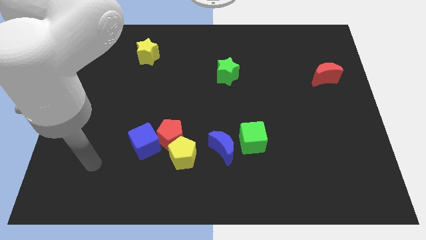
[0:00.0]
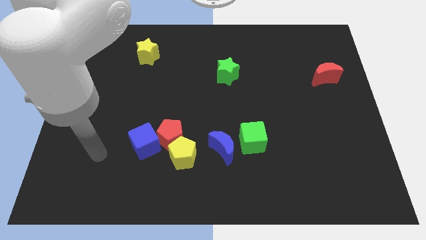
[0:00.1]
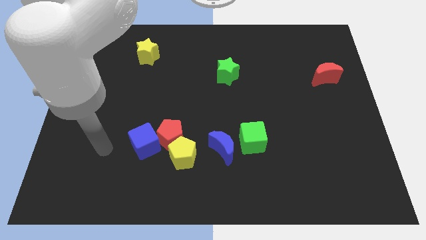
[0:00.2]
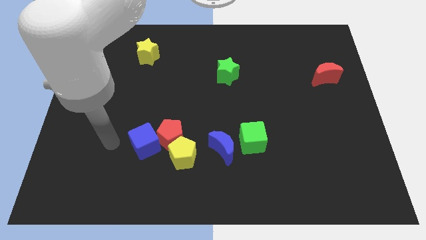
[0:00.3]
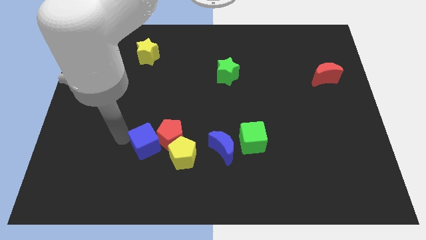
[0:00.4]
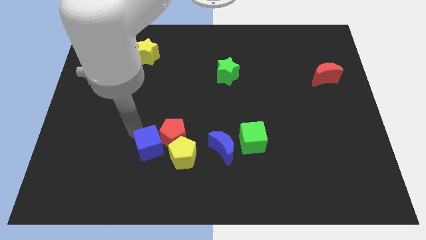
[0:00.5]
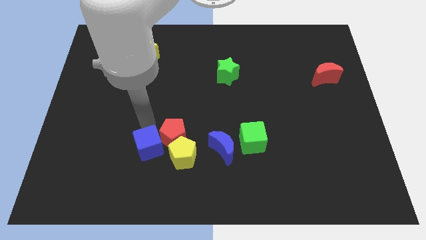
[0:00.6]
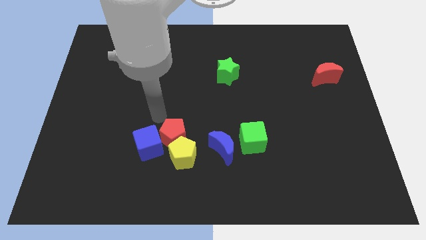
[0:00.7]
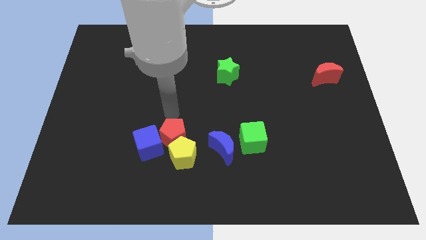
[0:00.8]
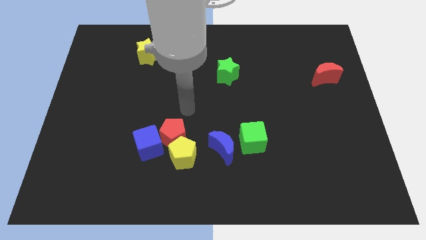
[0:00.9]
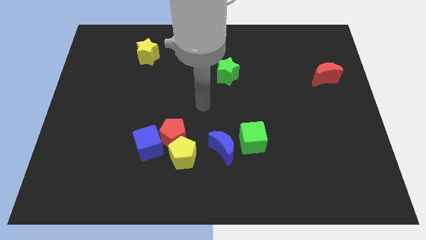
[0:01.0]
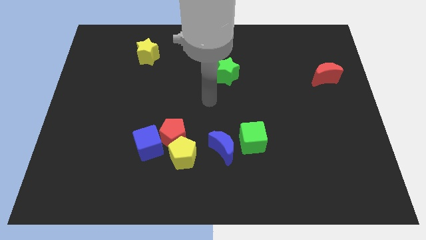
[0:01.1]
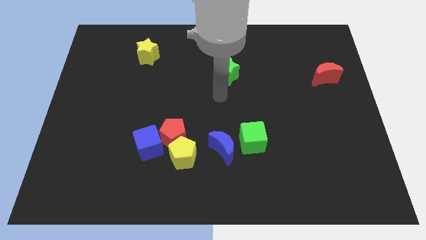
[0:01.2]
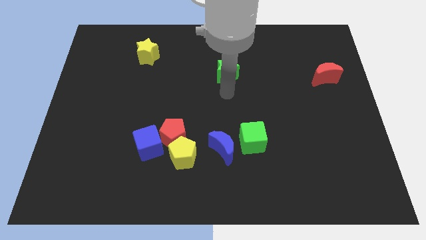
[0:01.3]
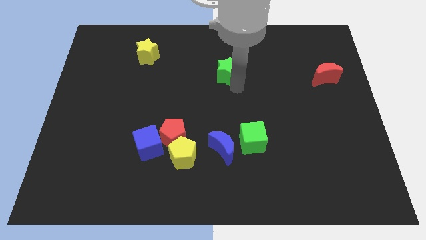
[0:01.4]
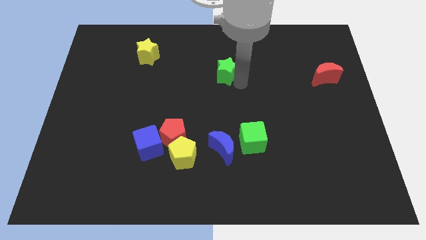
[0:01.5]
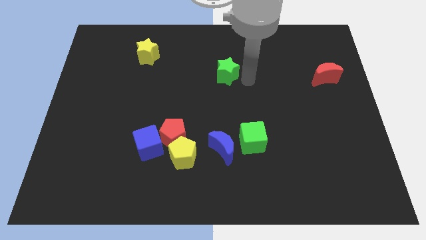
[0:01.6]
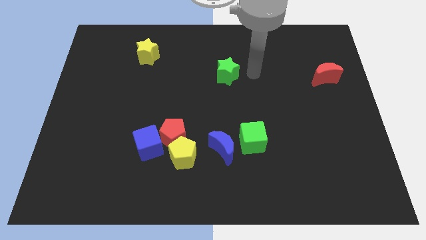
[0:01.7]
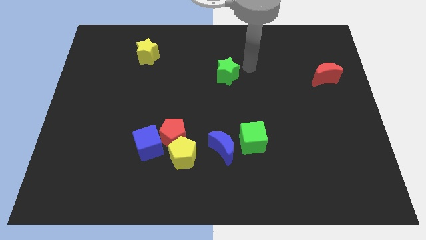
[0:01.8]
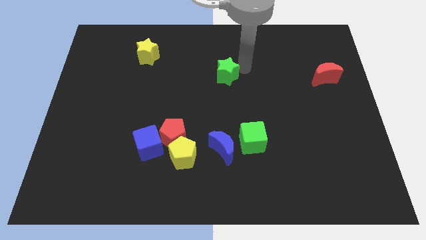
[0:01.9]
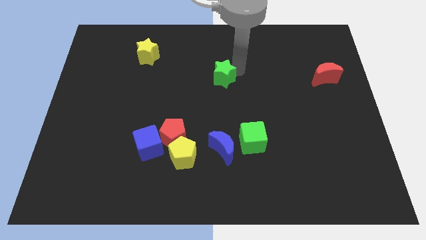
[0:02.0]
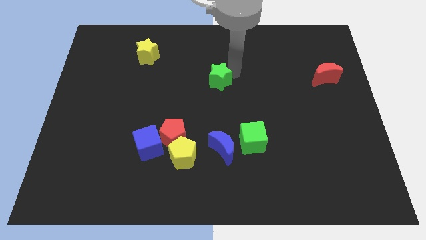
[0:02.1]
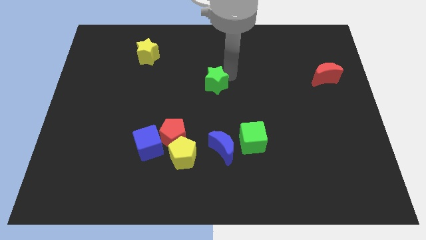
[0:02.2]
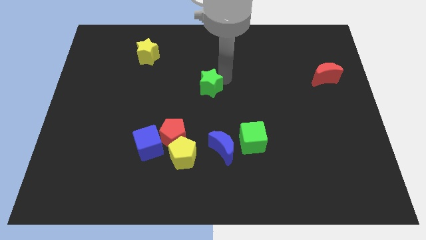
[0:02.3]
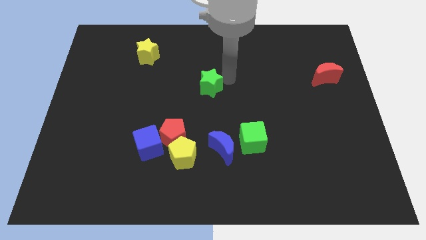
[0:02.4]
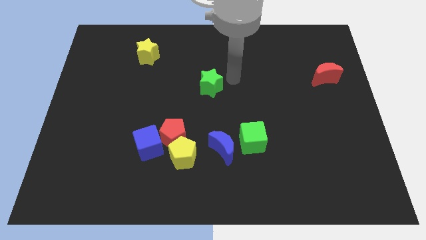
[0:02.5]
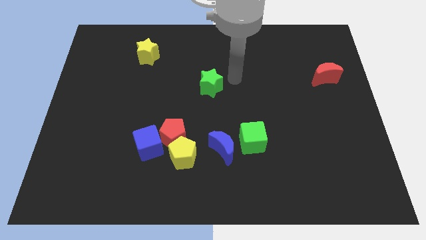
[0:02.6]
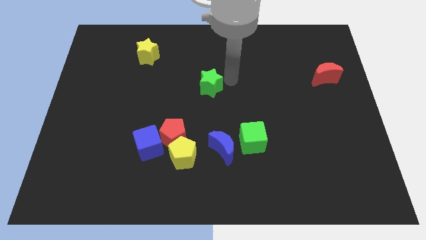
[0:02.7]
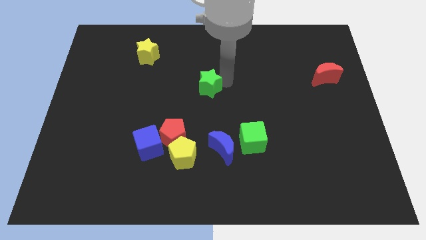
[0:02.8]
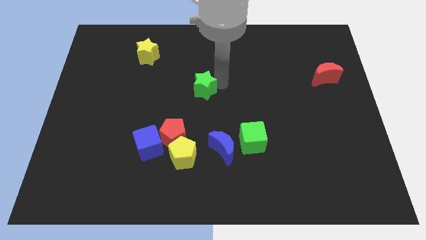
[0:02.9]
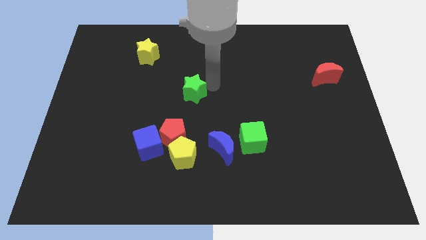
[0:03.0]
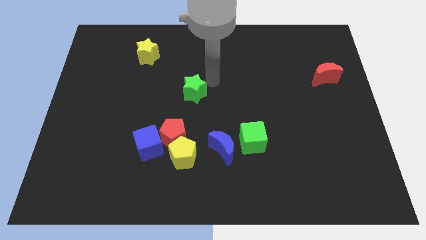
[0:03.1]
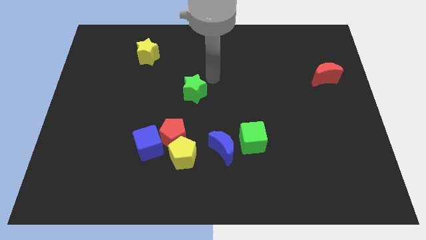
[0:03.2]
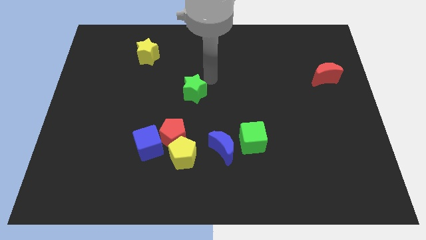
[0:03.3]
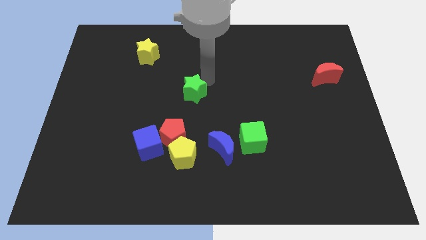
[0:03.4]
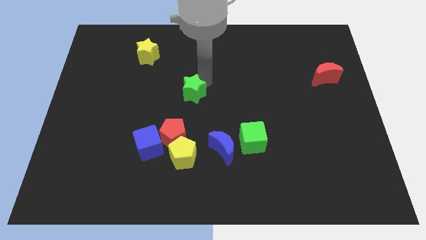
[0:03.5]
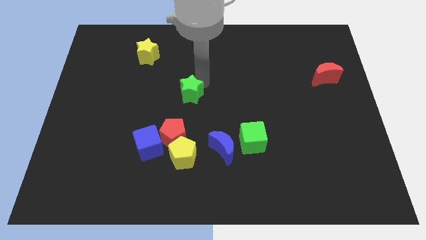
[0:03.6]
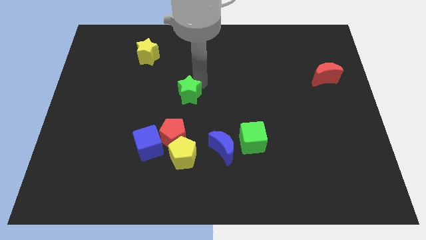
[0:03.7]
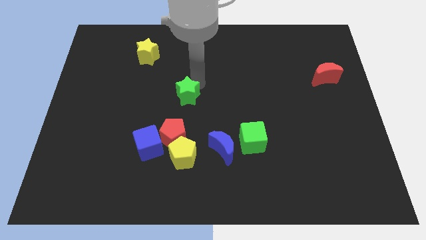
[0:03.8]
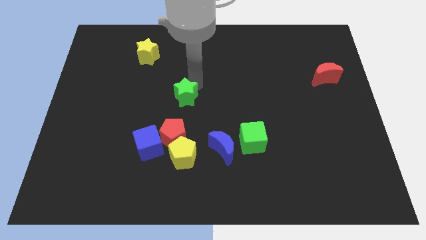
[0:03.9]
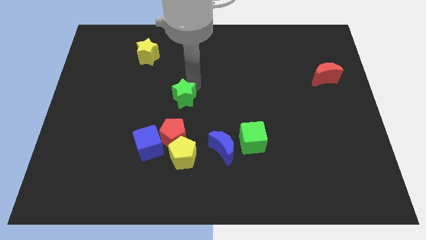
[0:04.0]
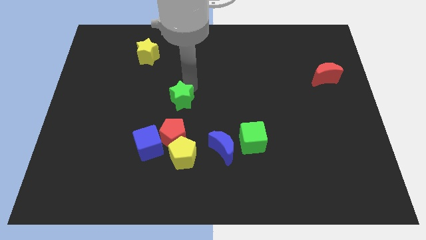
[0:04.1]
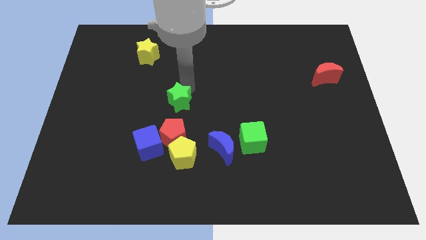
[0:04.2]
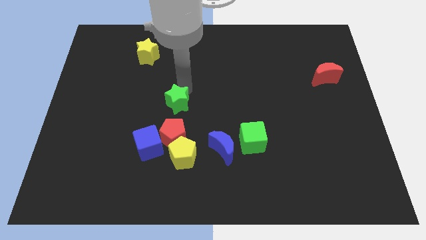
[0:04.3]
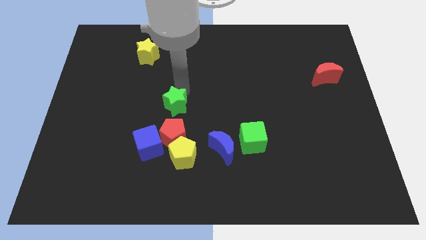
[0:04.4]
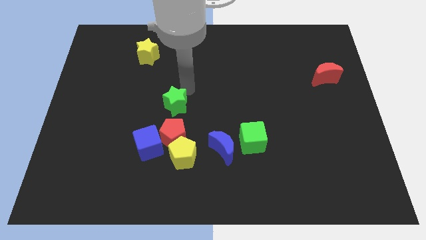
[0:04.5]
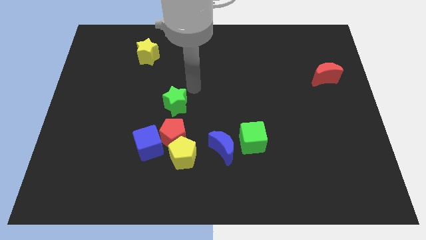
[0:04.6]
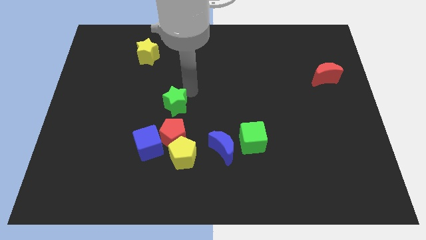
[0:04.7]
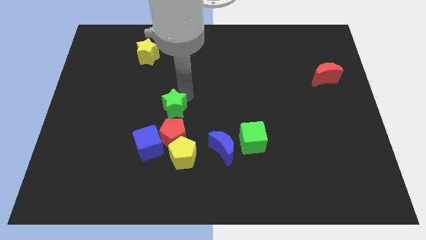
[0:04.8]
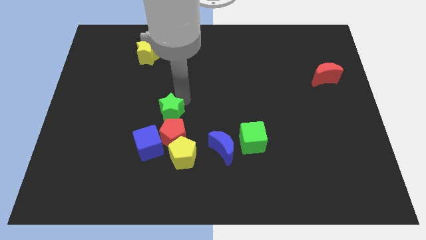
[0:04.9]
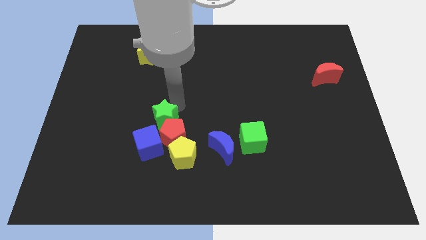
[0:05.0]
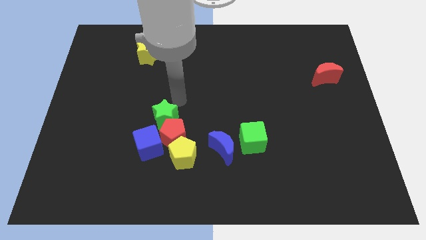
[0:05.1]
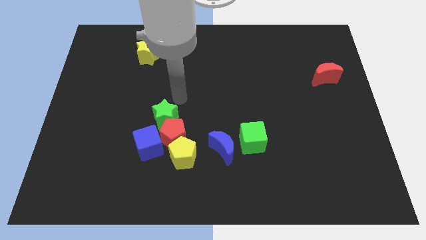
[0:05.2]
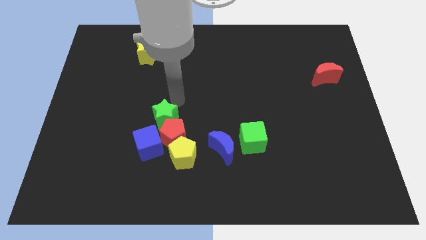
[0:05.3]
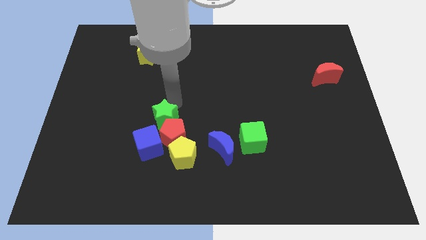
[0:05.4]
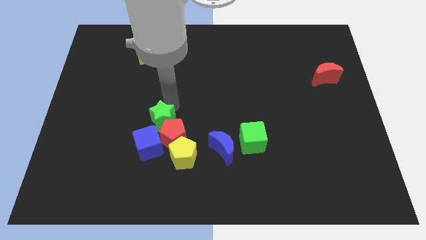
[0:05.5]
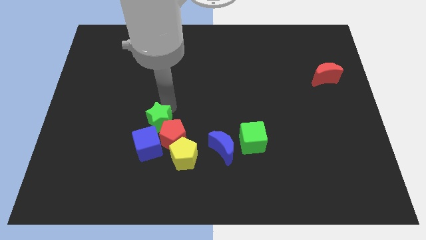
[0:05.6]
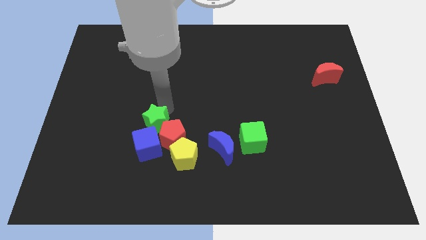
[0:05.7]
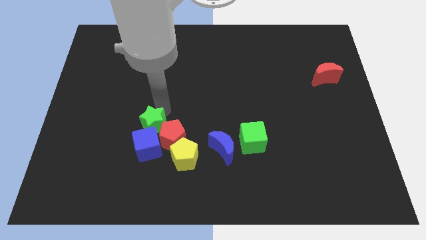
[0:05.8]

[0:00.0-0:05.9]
slide the green star next to the blue cube
